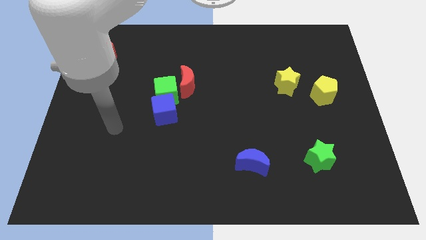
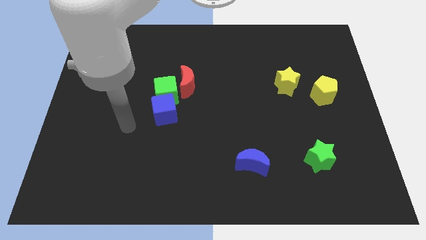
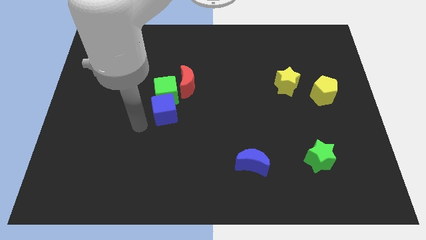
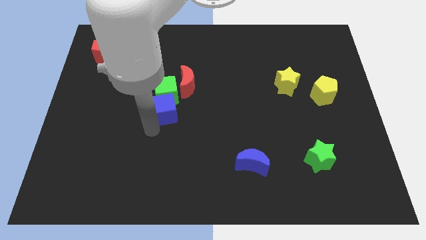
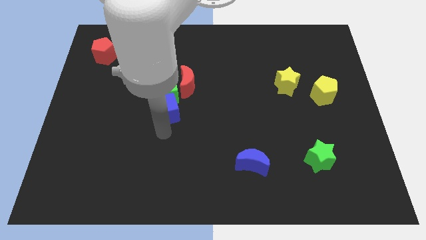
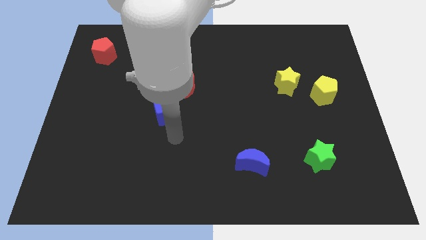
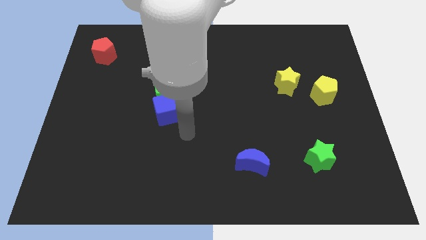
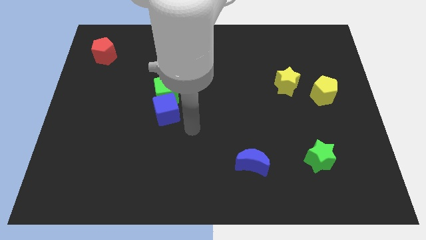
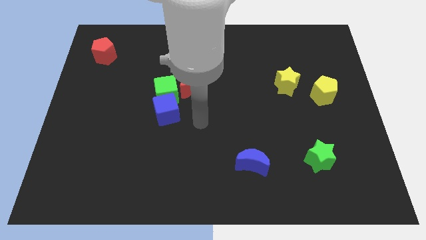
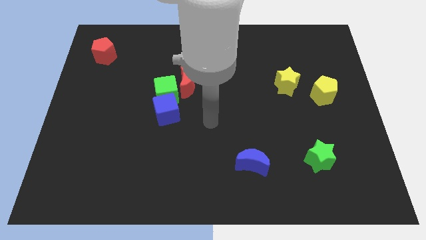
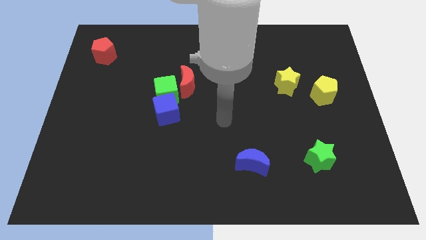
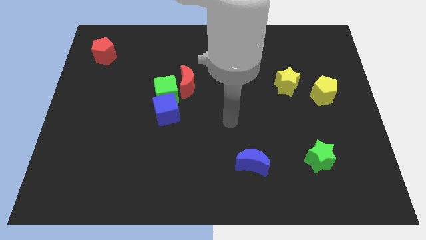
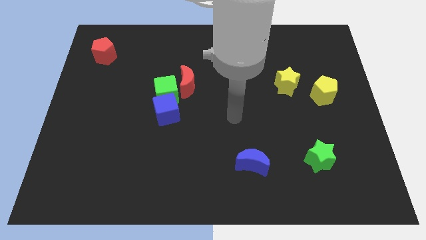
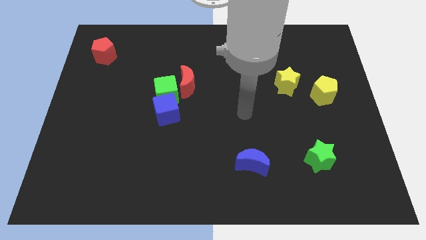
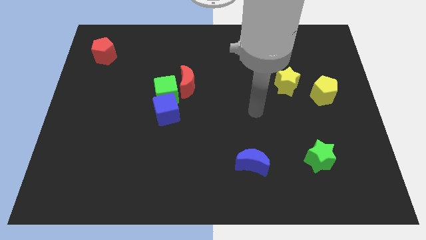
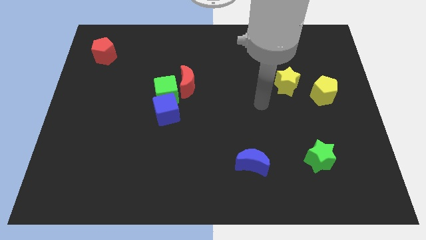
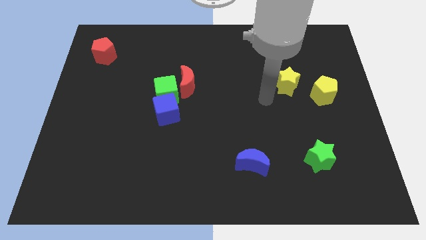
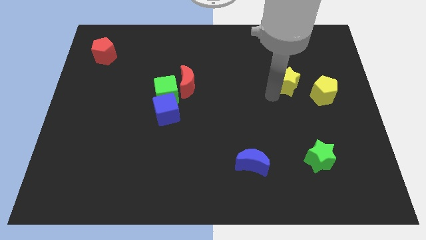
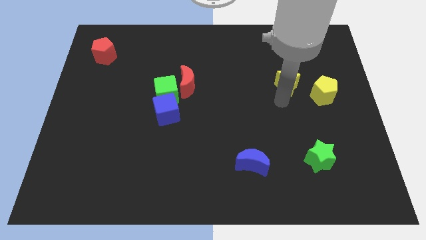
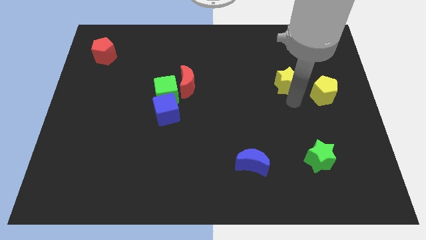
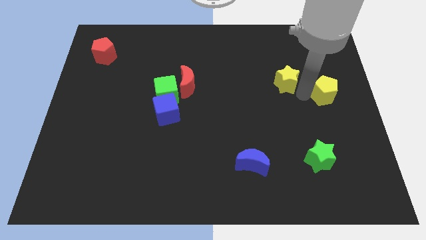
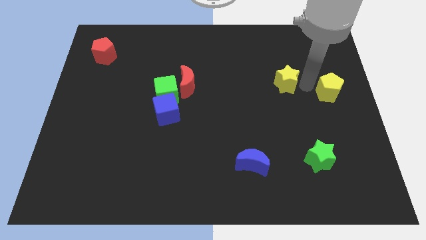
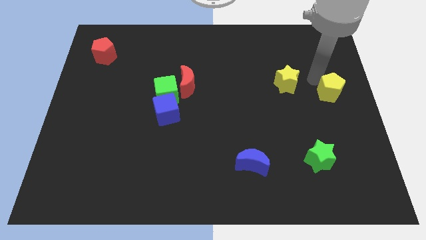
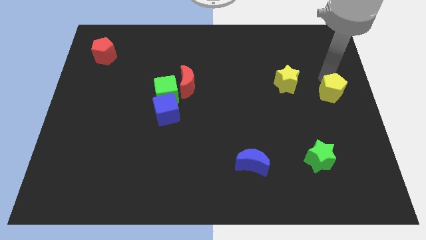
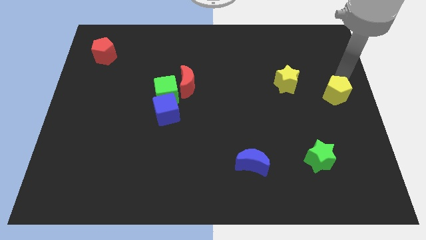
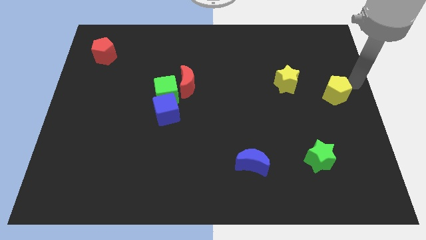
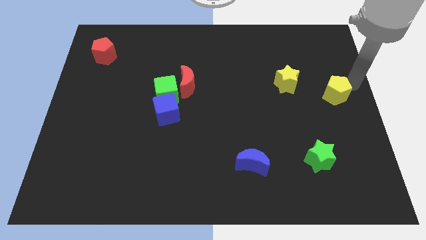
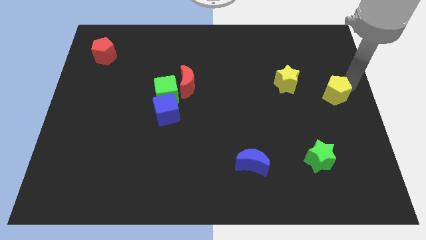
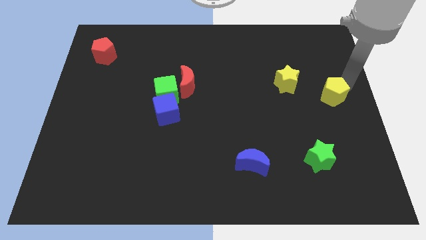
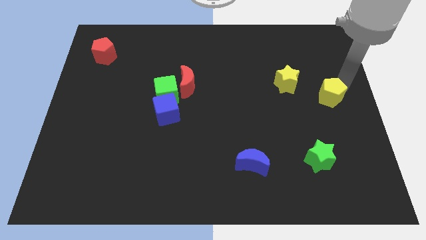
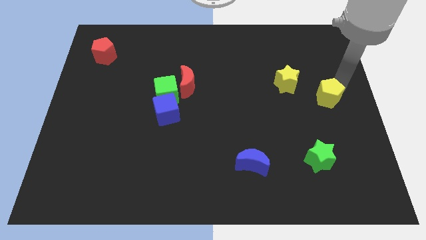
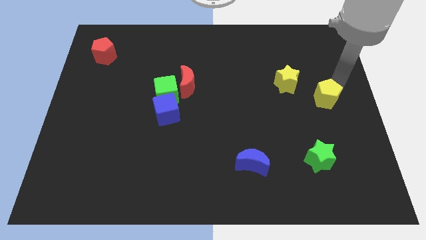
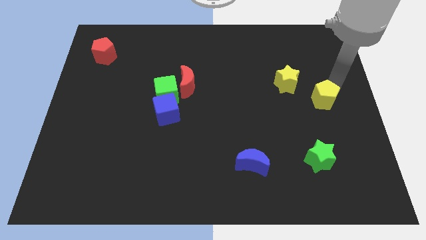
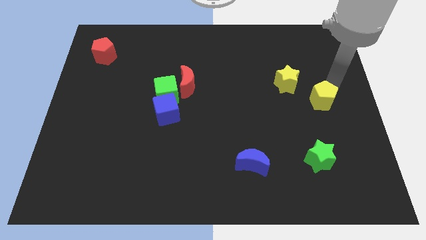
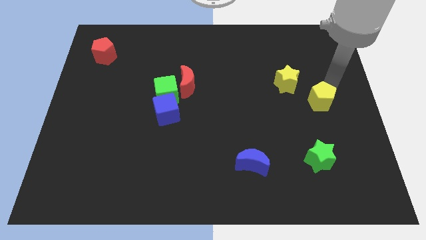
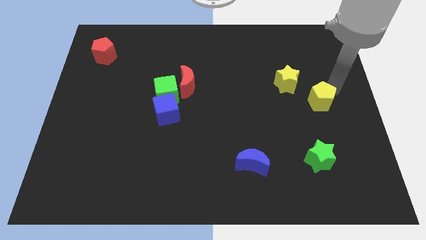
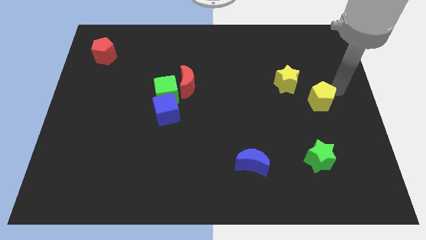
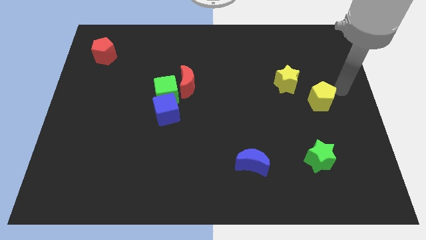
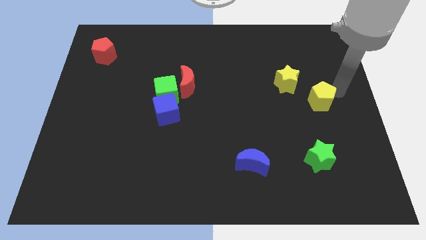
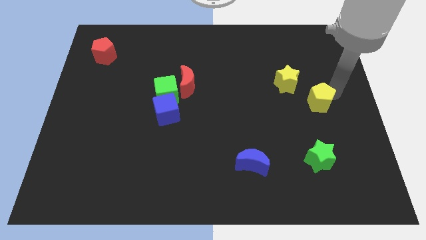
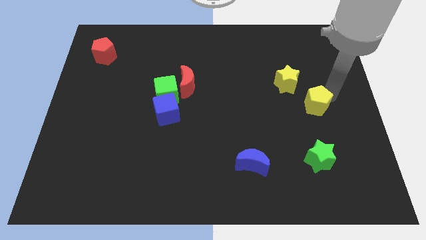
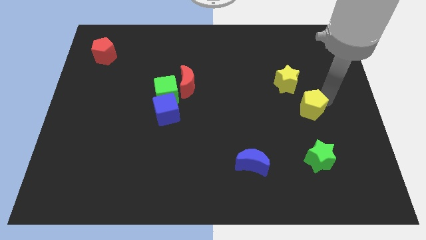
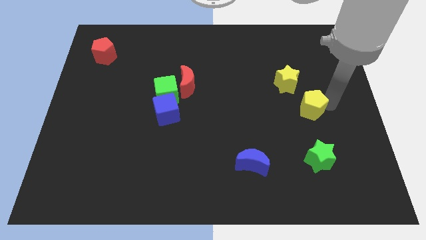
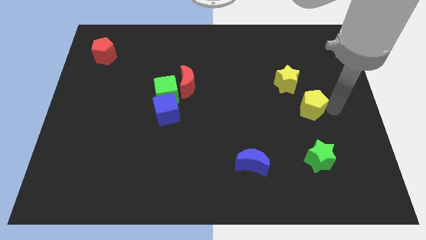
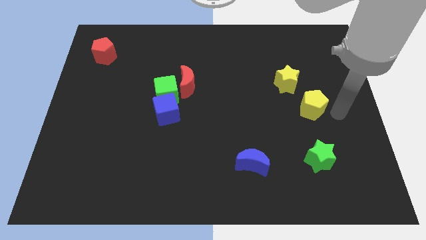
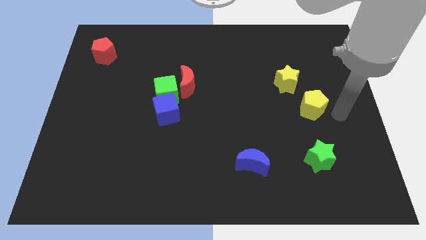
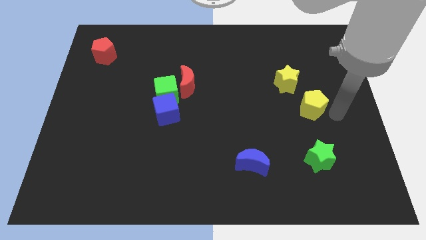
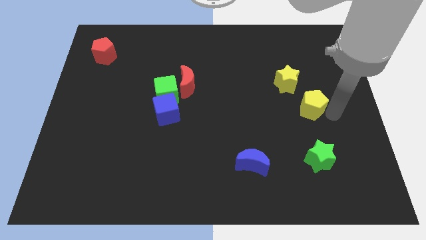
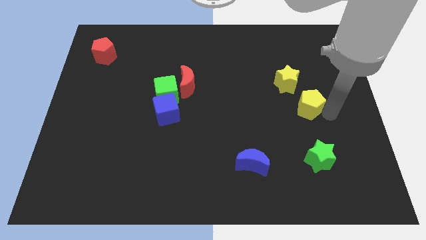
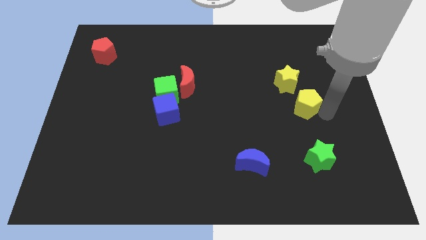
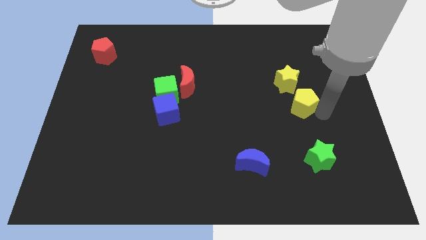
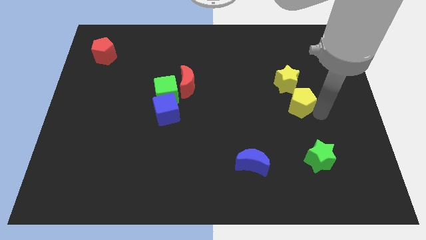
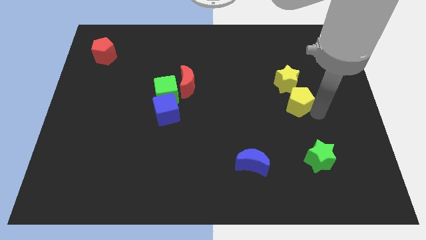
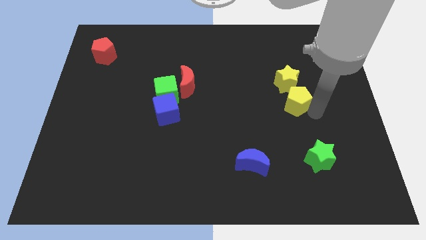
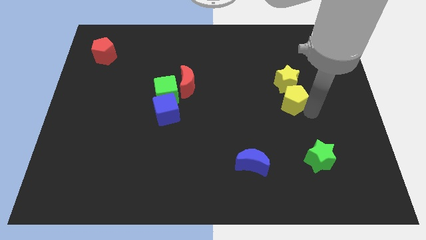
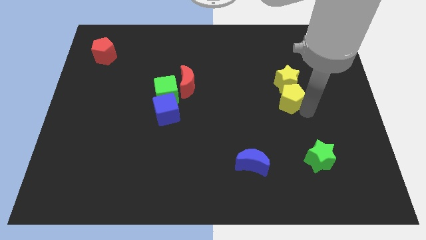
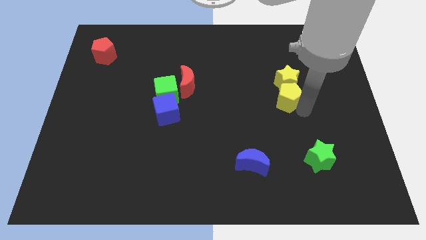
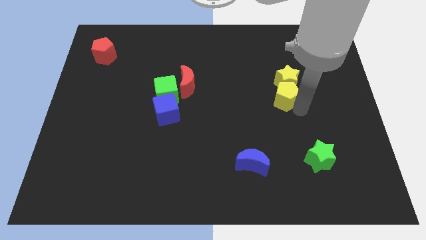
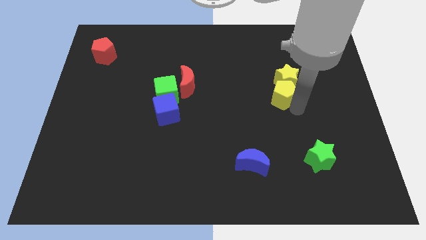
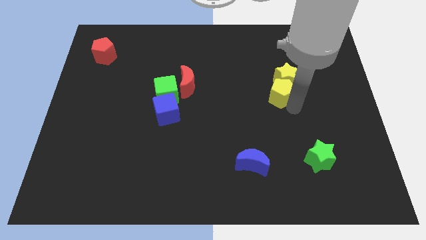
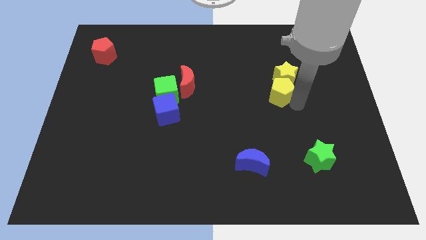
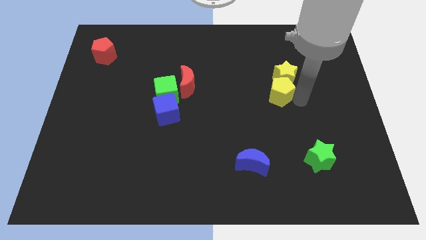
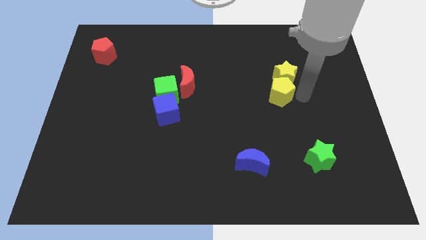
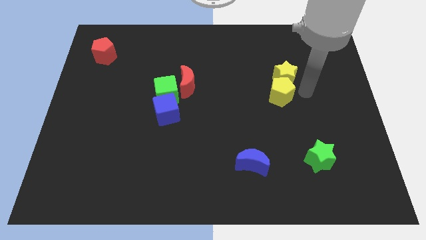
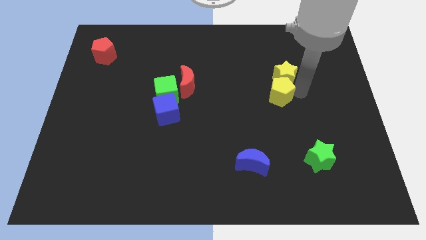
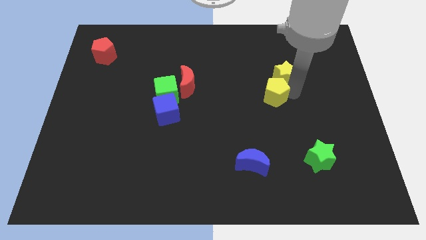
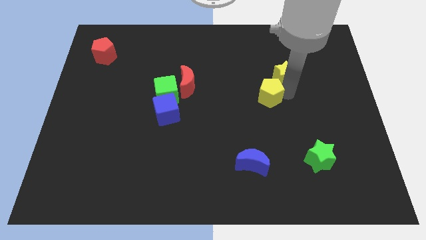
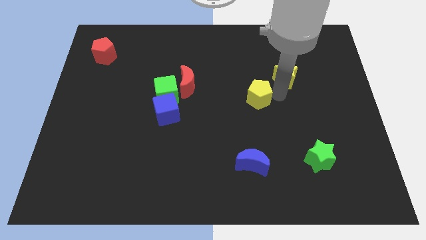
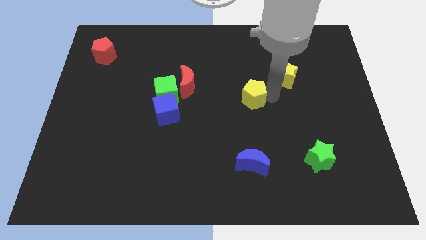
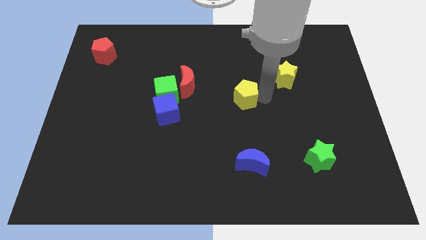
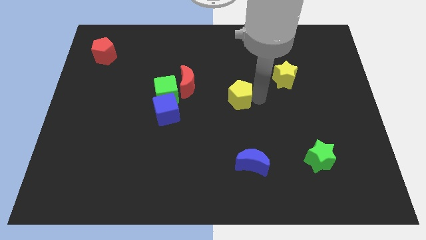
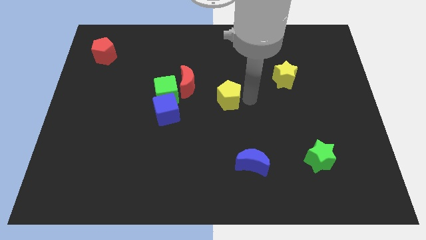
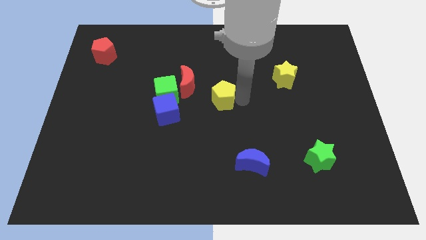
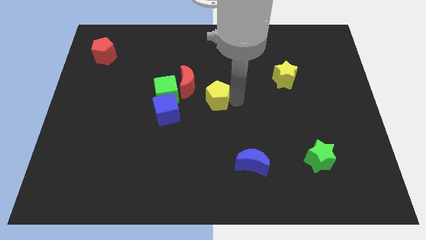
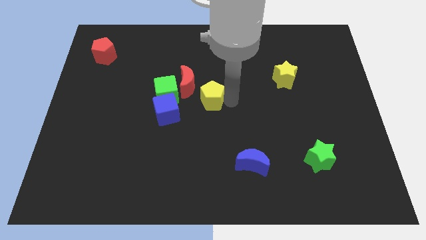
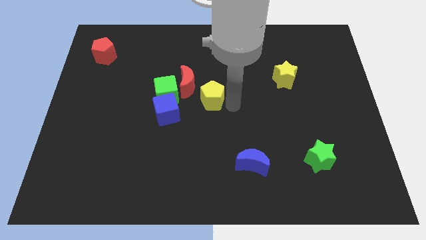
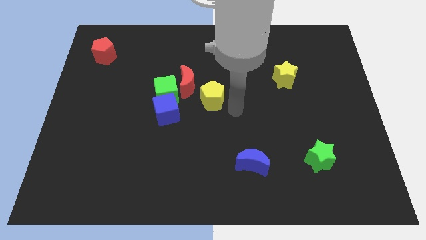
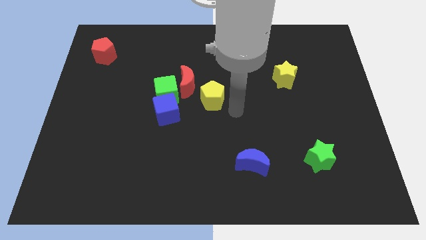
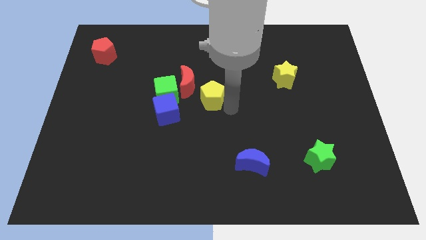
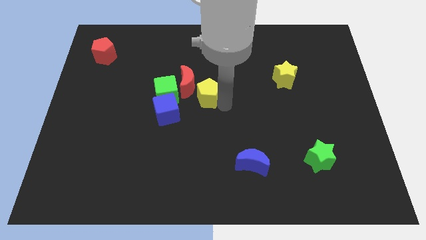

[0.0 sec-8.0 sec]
move the yellow pentagon close to the red moon

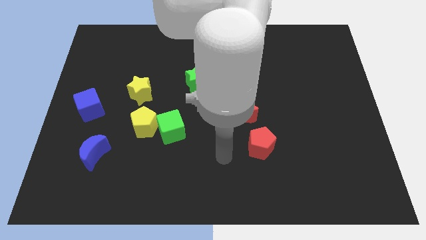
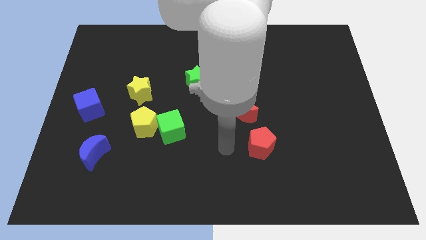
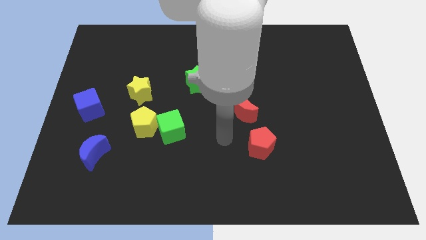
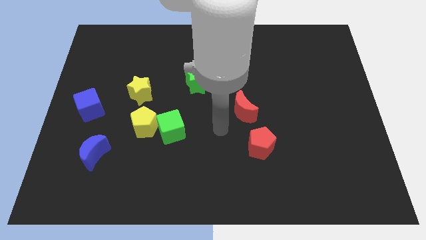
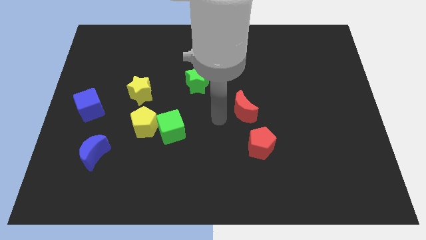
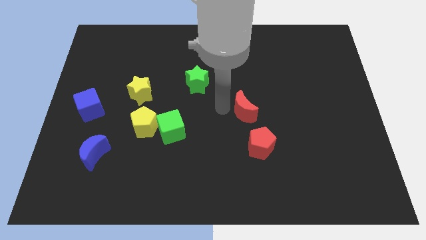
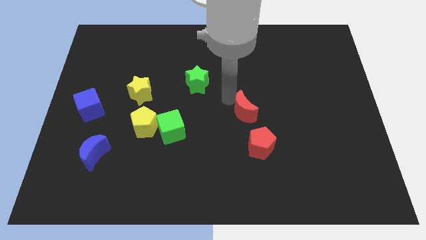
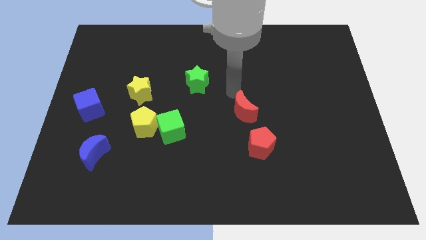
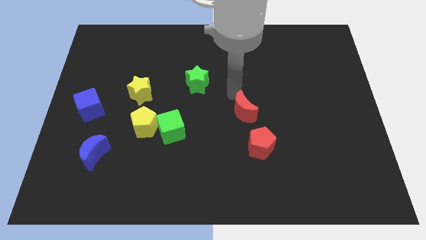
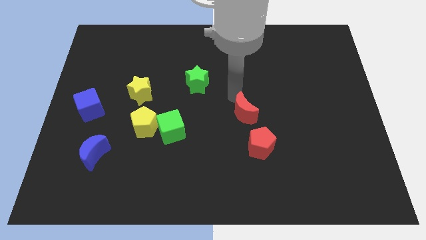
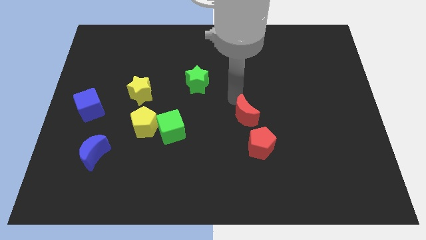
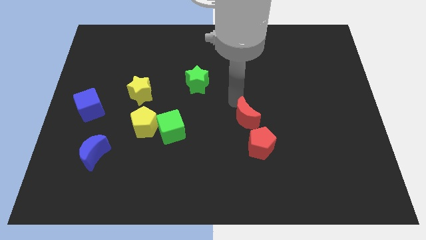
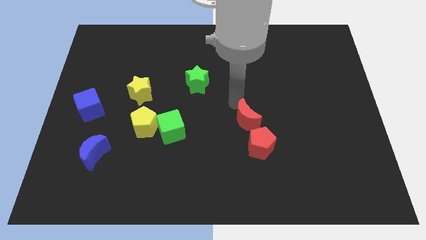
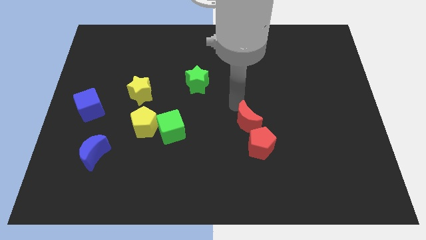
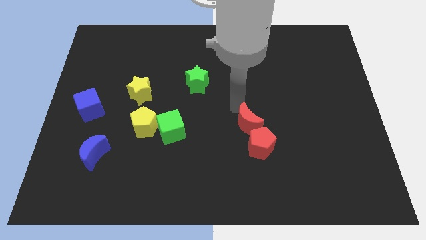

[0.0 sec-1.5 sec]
push the red moon close to the red pentagon
